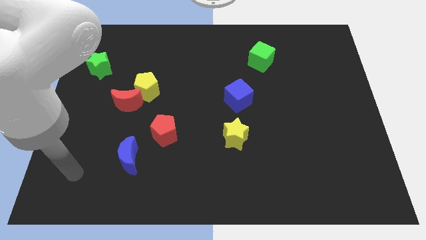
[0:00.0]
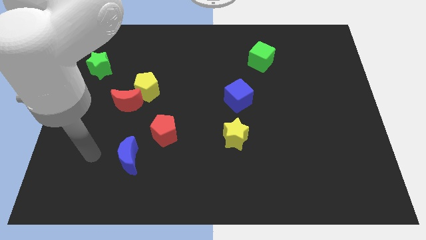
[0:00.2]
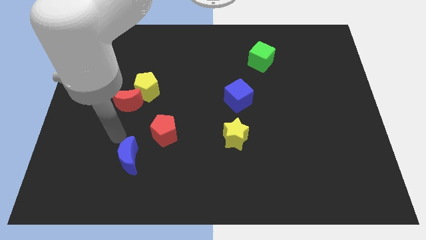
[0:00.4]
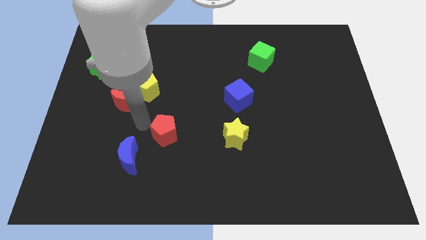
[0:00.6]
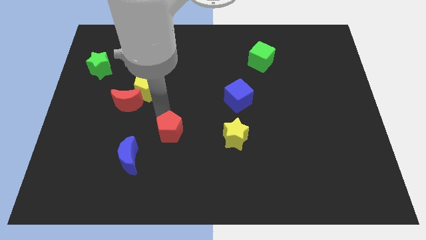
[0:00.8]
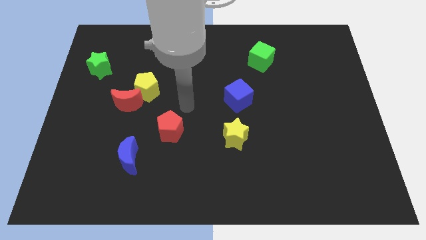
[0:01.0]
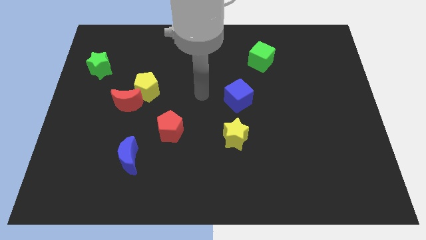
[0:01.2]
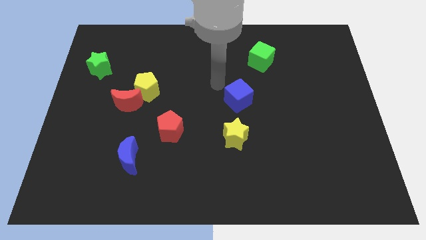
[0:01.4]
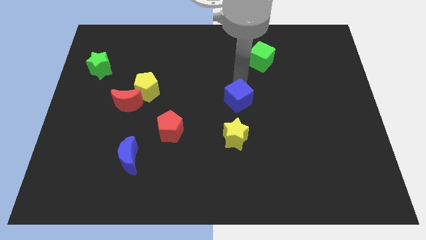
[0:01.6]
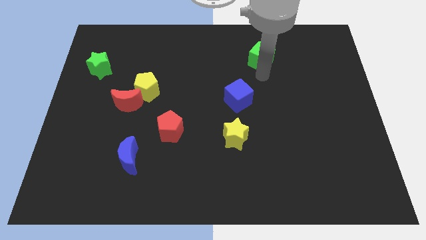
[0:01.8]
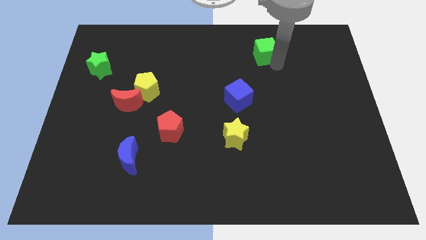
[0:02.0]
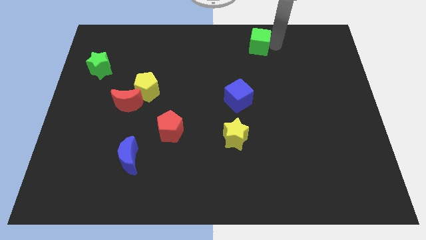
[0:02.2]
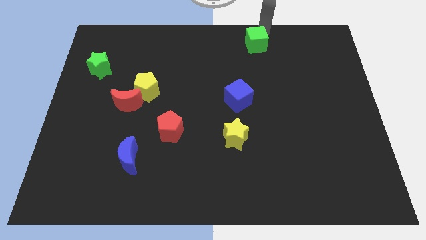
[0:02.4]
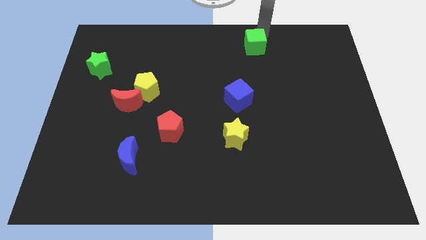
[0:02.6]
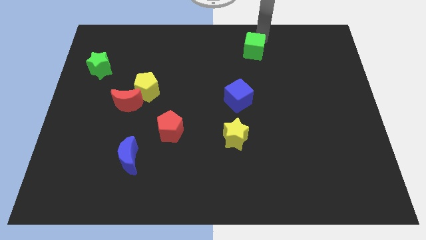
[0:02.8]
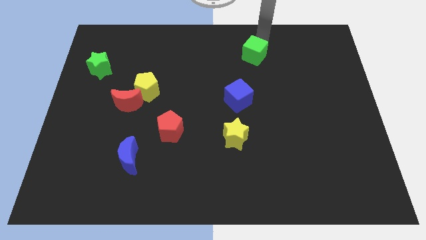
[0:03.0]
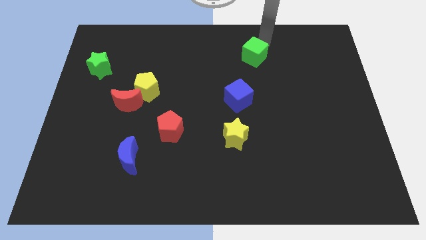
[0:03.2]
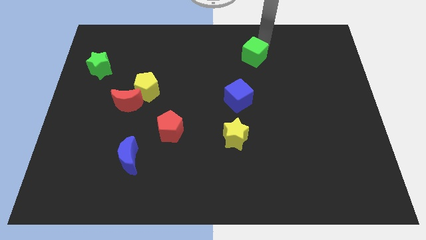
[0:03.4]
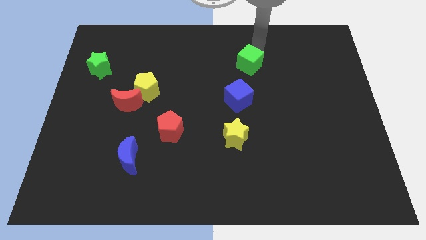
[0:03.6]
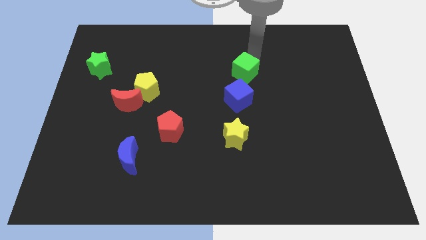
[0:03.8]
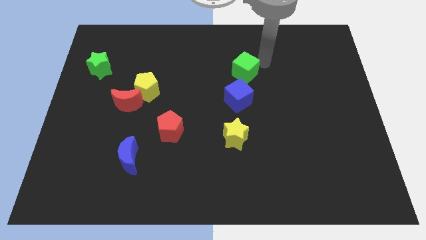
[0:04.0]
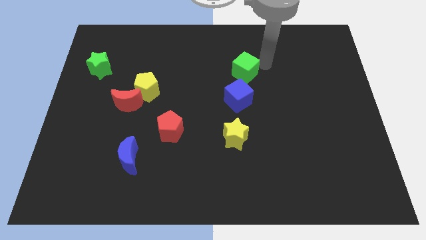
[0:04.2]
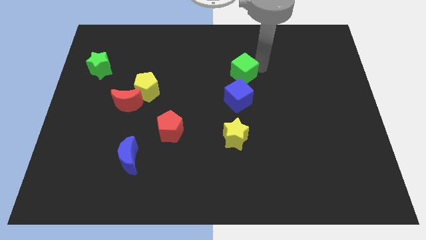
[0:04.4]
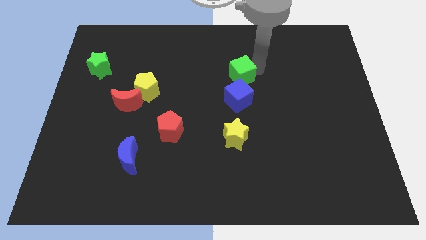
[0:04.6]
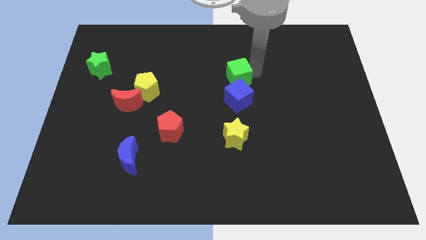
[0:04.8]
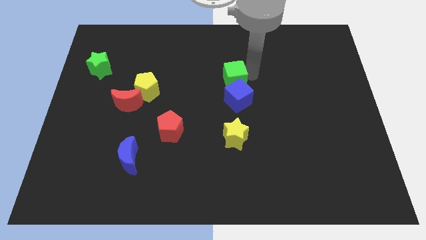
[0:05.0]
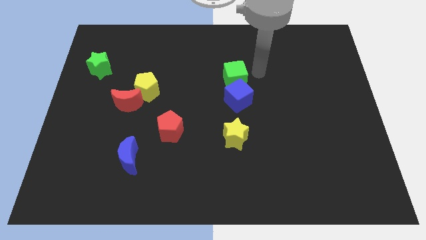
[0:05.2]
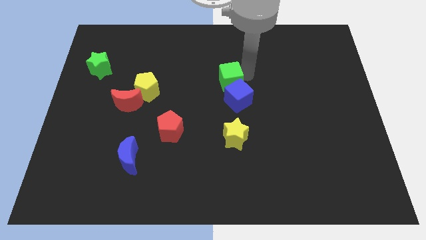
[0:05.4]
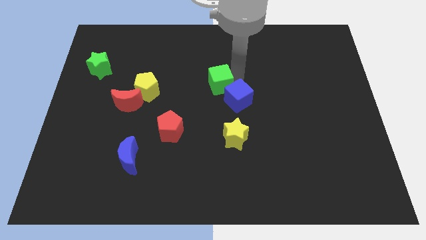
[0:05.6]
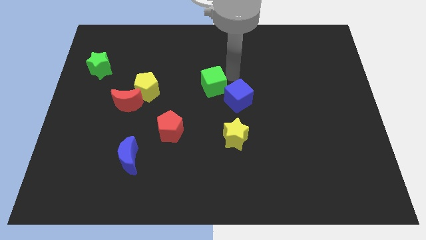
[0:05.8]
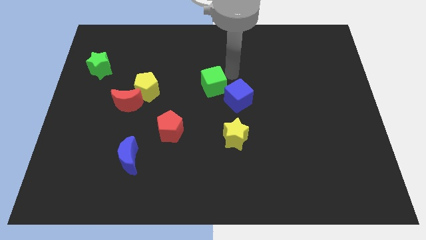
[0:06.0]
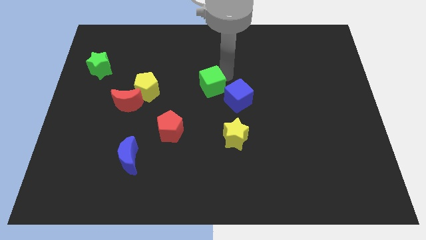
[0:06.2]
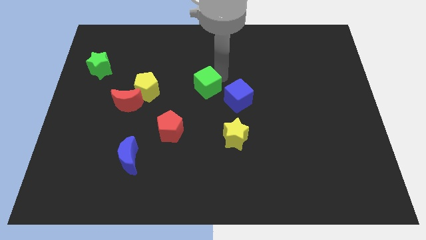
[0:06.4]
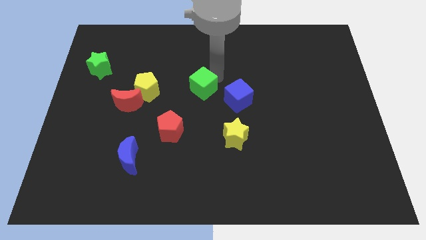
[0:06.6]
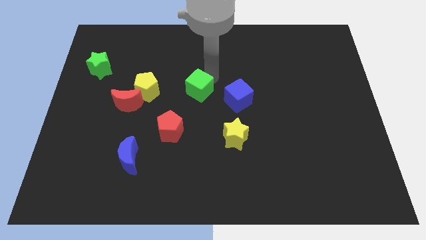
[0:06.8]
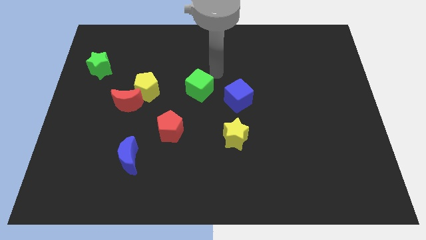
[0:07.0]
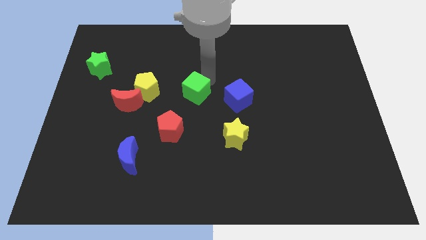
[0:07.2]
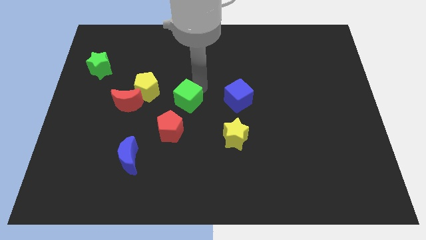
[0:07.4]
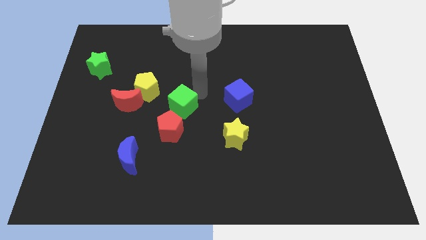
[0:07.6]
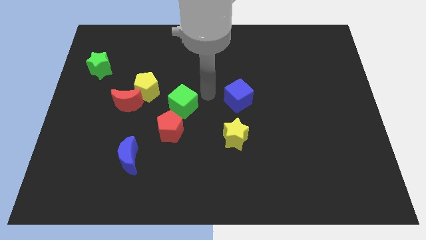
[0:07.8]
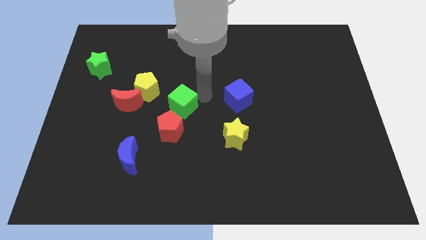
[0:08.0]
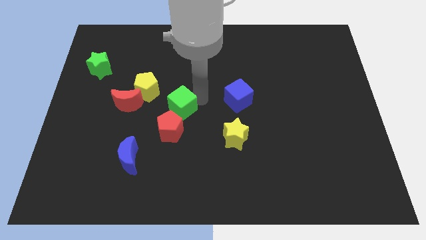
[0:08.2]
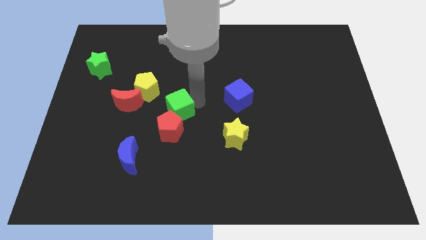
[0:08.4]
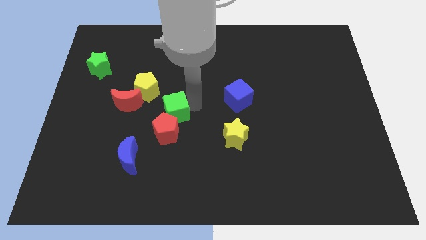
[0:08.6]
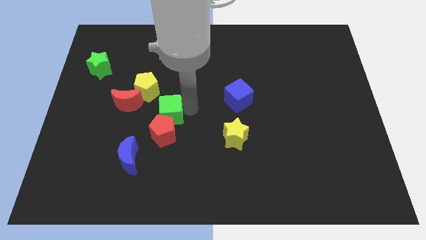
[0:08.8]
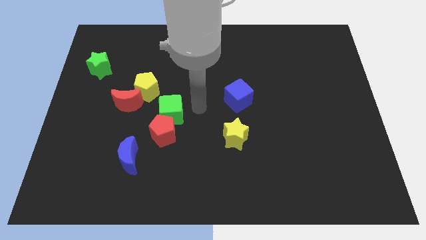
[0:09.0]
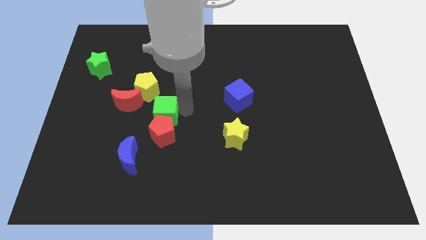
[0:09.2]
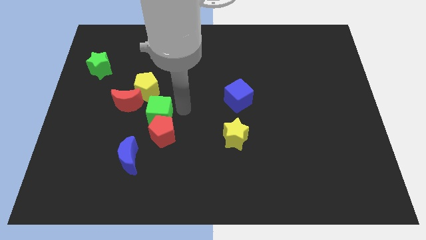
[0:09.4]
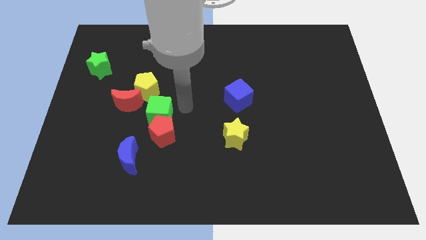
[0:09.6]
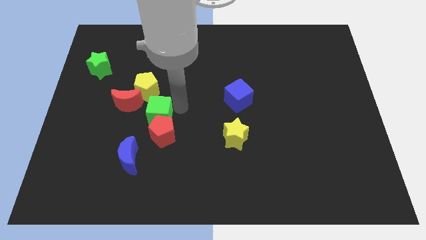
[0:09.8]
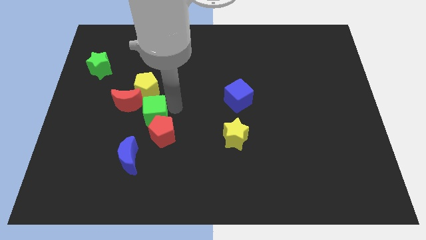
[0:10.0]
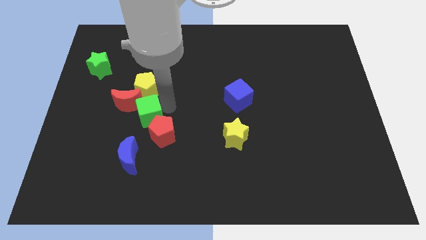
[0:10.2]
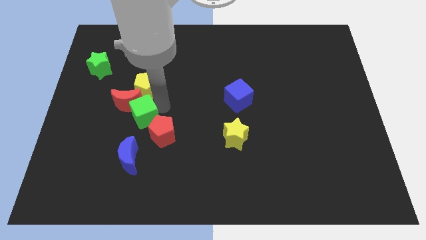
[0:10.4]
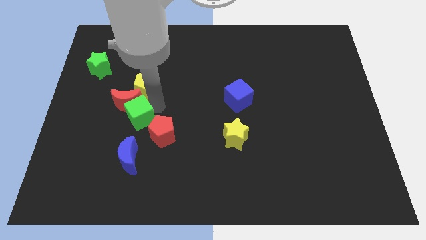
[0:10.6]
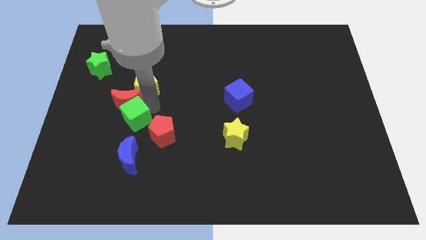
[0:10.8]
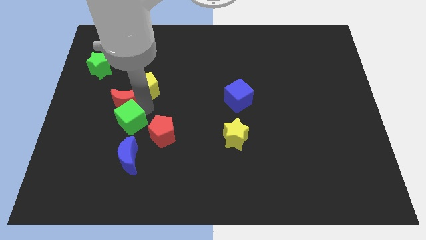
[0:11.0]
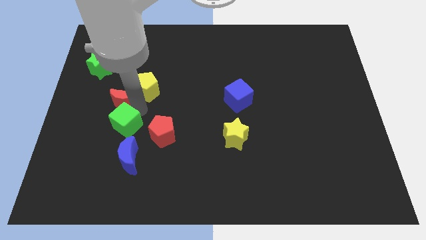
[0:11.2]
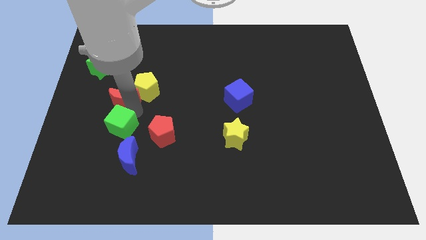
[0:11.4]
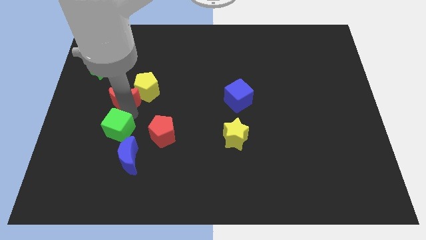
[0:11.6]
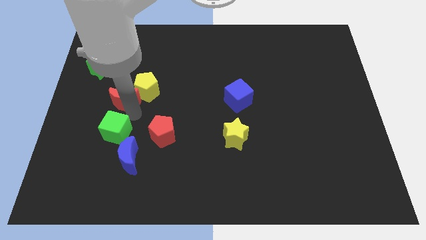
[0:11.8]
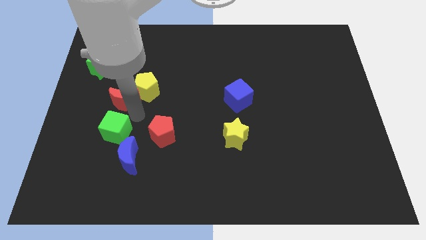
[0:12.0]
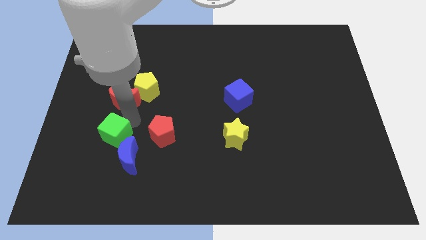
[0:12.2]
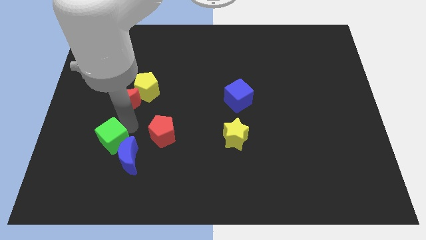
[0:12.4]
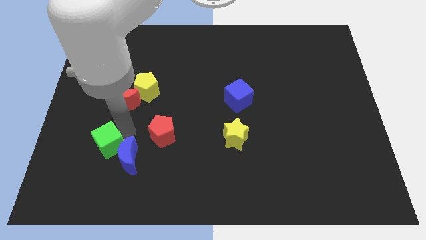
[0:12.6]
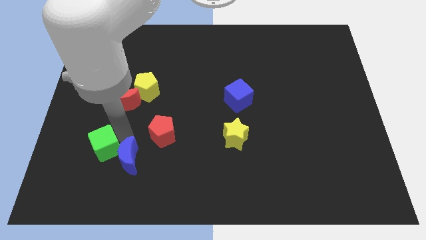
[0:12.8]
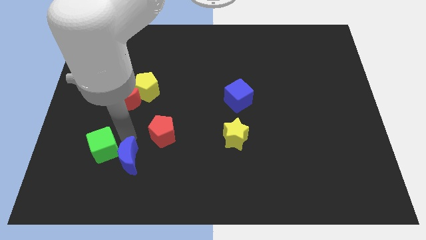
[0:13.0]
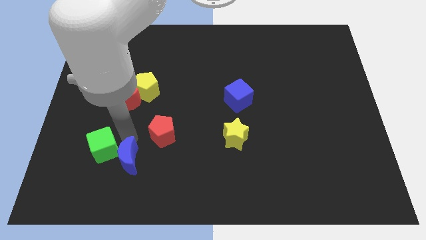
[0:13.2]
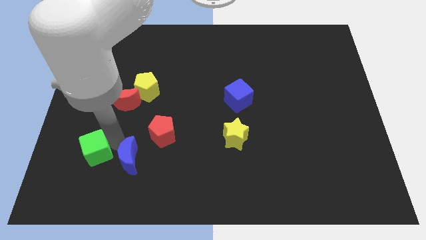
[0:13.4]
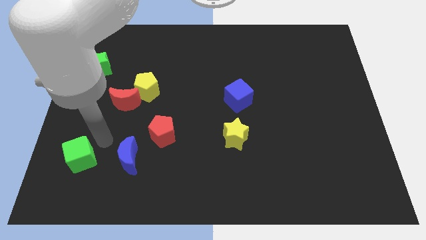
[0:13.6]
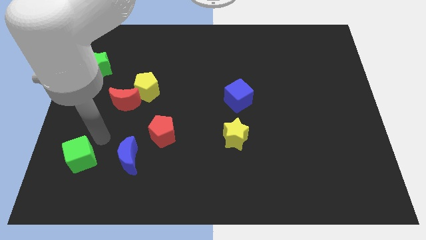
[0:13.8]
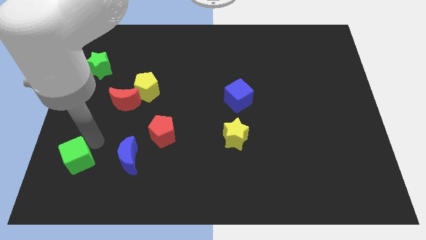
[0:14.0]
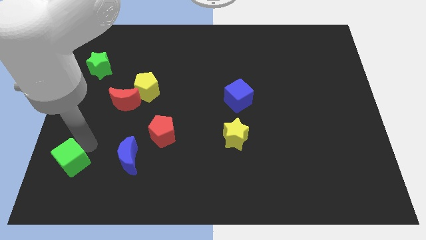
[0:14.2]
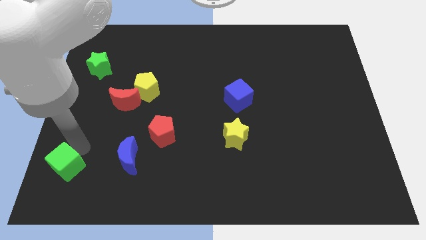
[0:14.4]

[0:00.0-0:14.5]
slide the green cube to the bottom left
